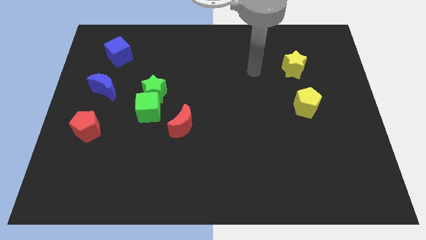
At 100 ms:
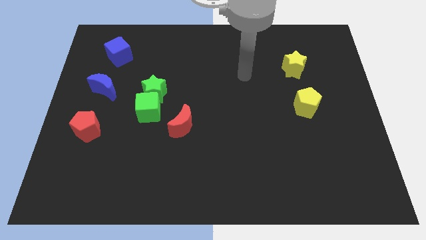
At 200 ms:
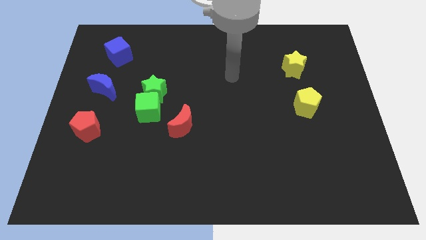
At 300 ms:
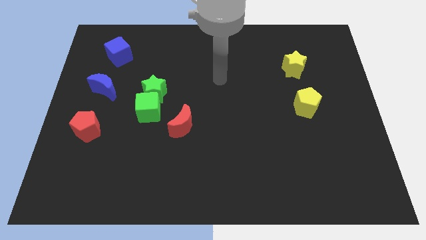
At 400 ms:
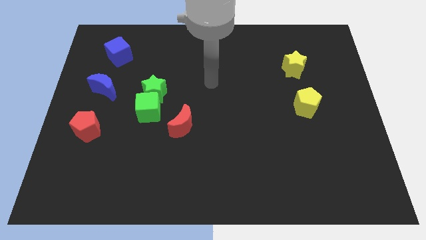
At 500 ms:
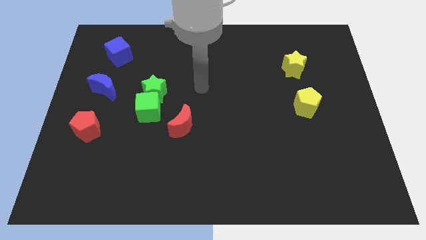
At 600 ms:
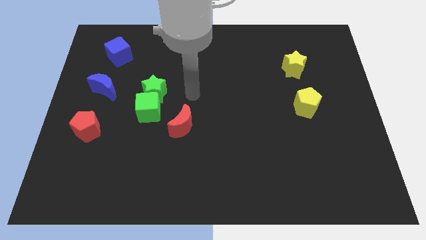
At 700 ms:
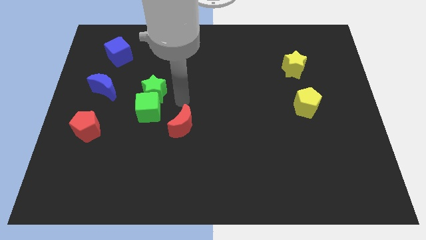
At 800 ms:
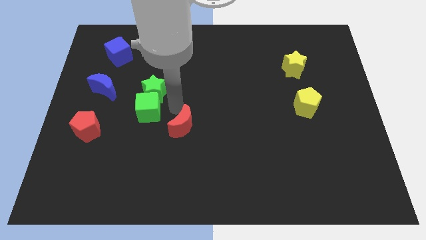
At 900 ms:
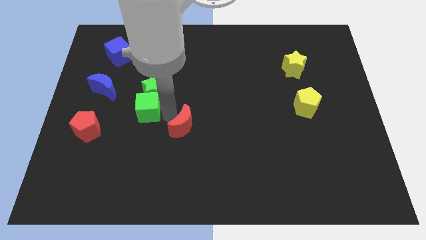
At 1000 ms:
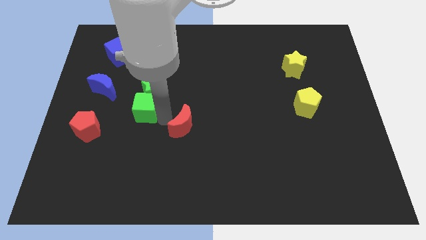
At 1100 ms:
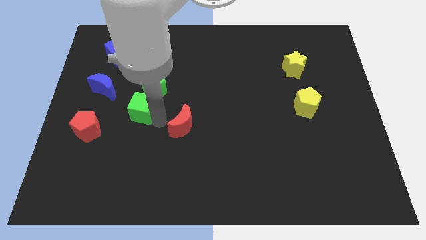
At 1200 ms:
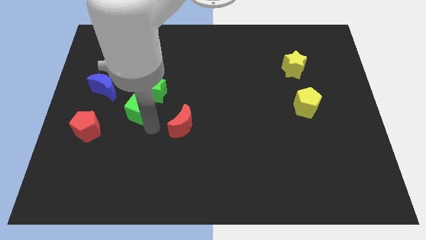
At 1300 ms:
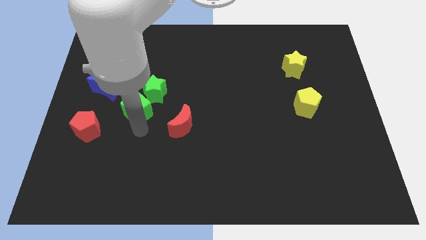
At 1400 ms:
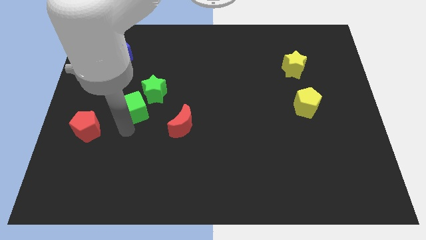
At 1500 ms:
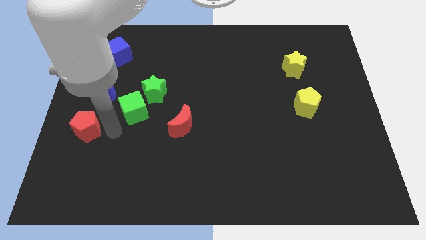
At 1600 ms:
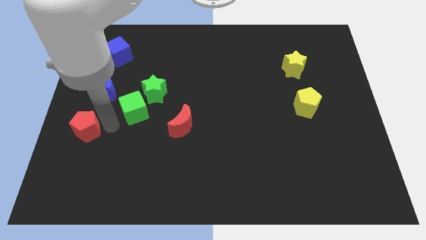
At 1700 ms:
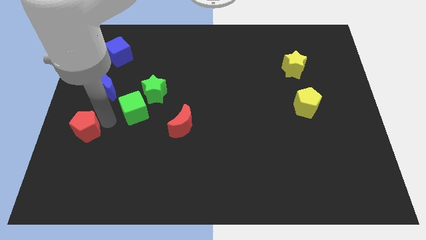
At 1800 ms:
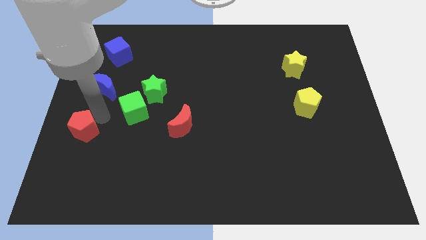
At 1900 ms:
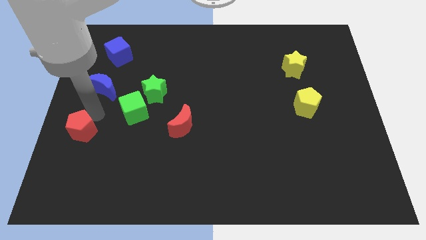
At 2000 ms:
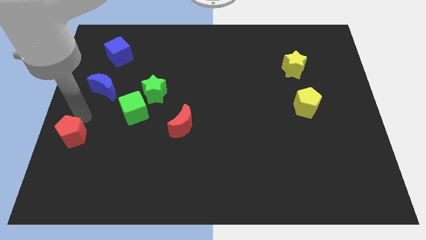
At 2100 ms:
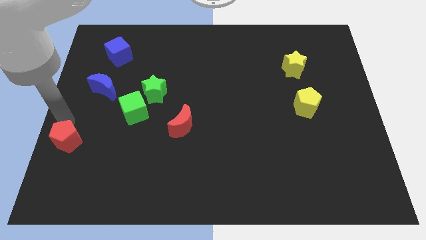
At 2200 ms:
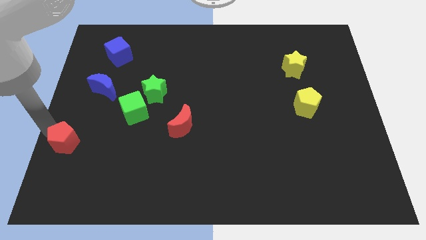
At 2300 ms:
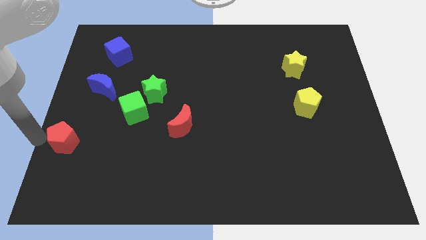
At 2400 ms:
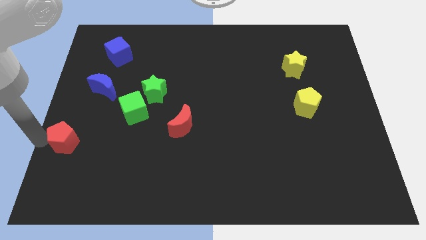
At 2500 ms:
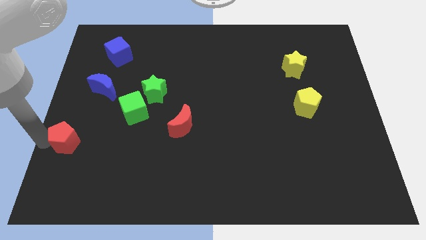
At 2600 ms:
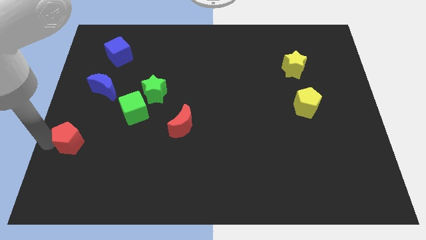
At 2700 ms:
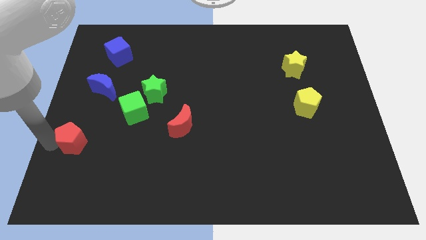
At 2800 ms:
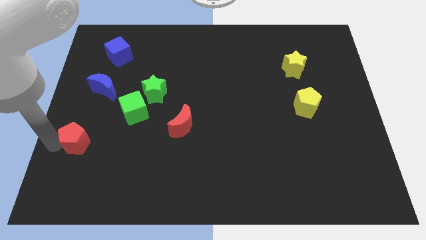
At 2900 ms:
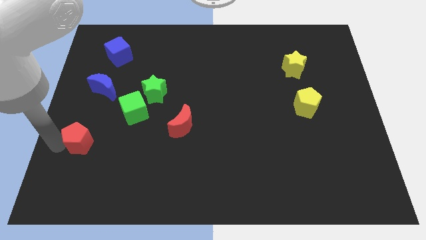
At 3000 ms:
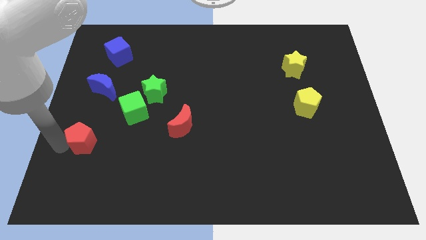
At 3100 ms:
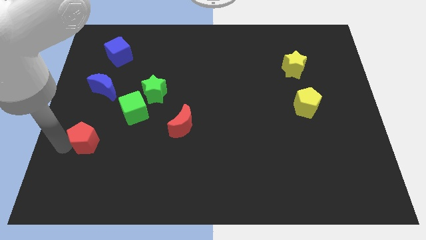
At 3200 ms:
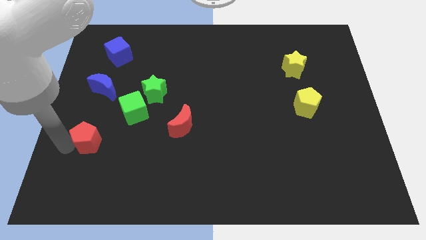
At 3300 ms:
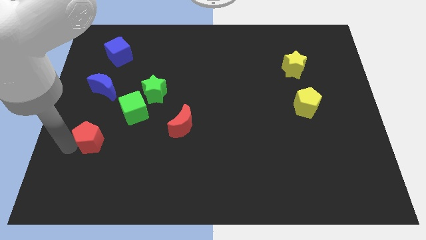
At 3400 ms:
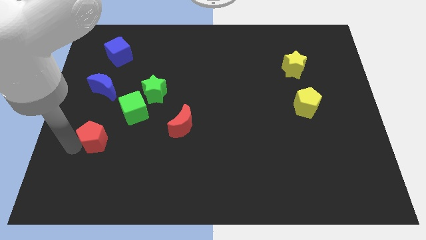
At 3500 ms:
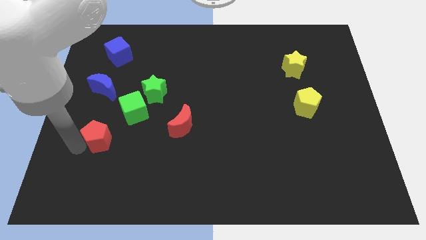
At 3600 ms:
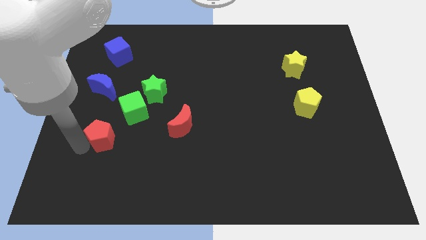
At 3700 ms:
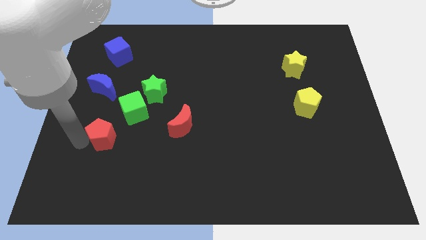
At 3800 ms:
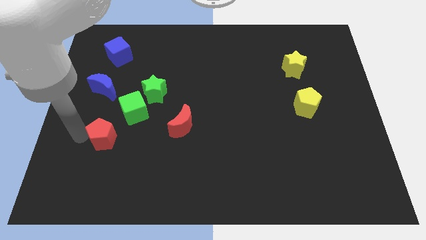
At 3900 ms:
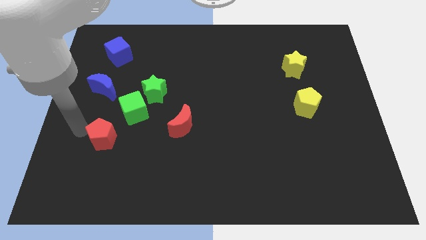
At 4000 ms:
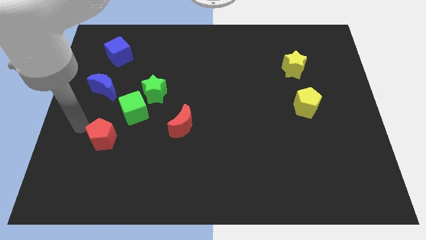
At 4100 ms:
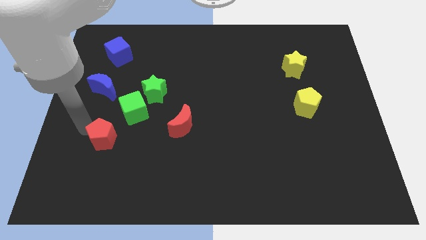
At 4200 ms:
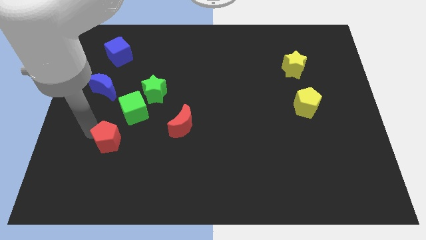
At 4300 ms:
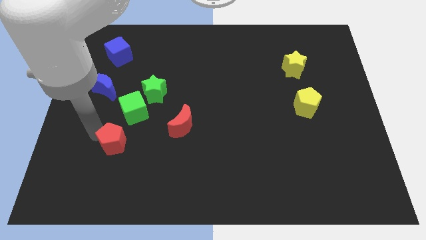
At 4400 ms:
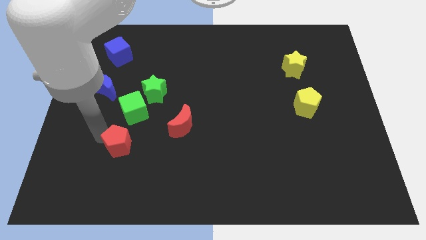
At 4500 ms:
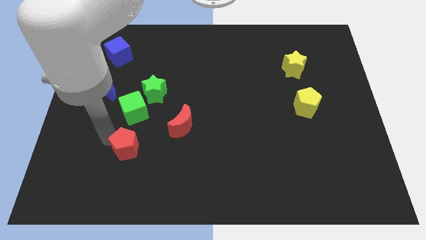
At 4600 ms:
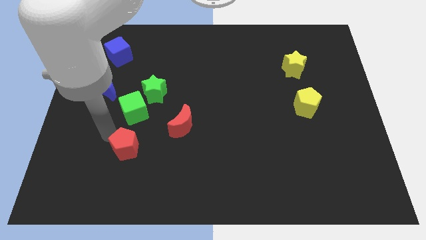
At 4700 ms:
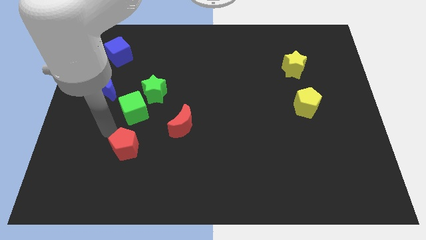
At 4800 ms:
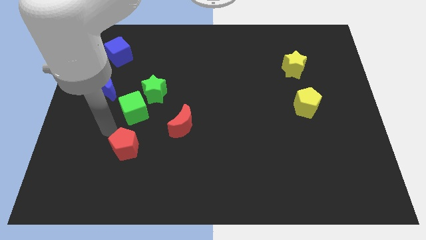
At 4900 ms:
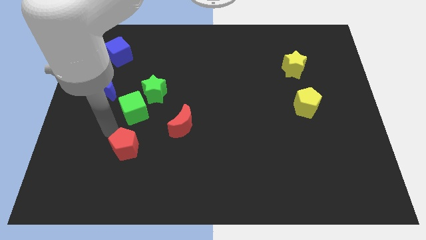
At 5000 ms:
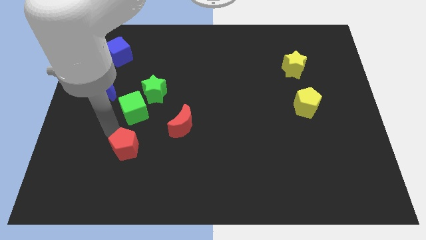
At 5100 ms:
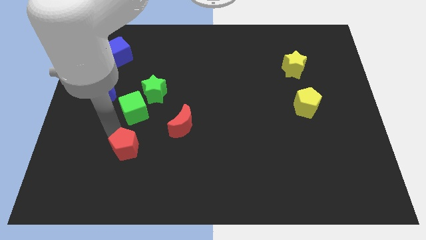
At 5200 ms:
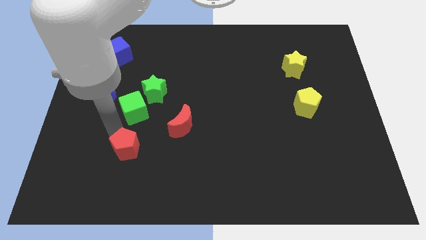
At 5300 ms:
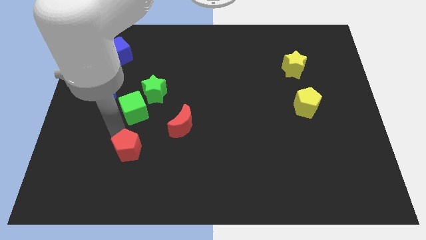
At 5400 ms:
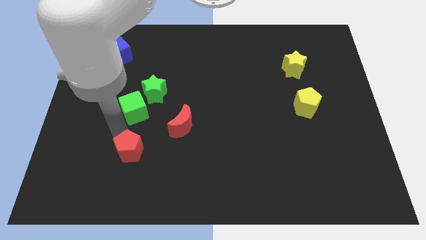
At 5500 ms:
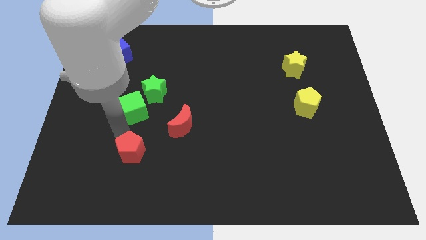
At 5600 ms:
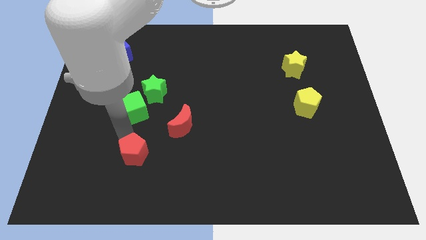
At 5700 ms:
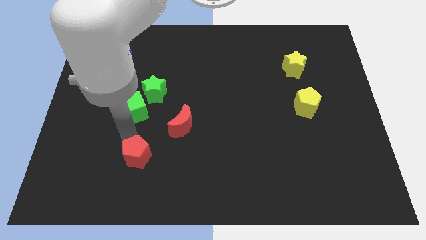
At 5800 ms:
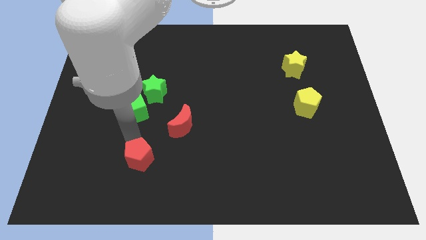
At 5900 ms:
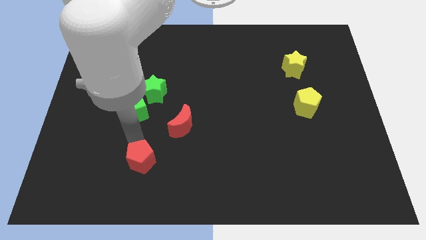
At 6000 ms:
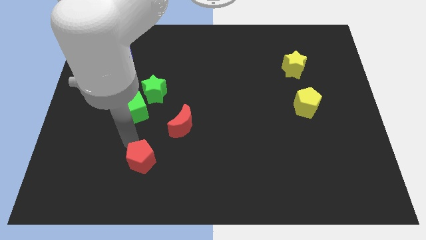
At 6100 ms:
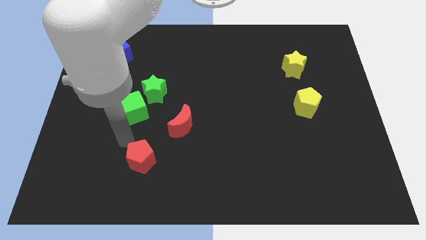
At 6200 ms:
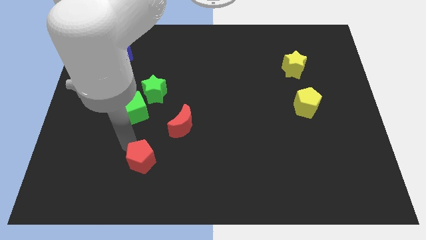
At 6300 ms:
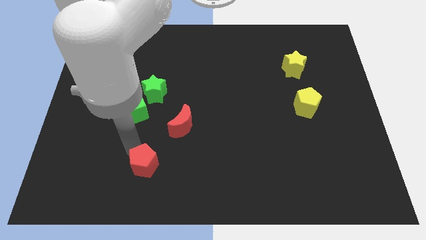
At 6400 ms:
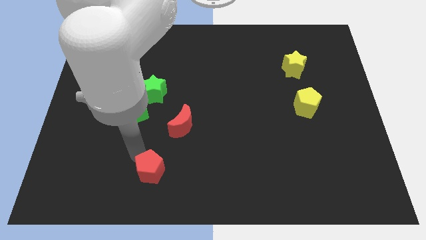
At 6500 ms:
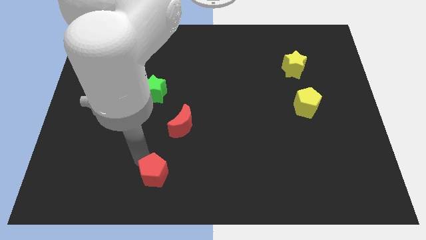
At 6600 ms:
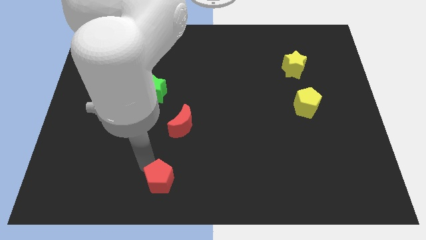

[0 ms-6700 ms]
put the red pentagon to the bottom

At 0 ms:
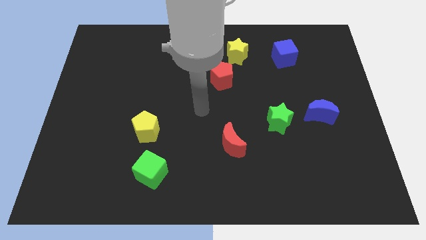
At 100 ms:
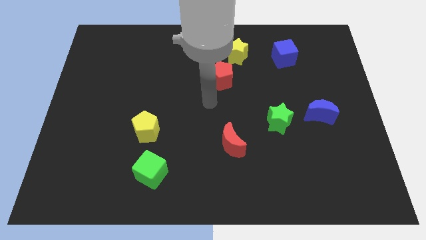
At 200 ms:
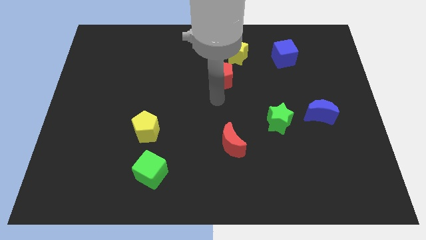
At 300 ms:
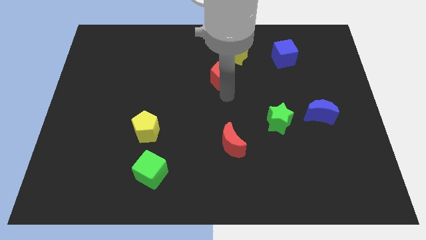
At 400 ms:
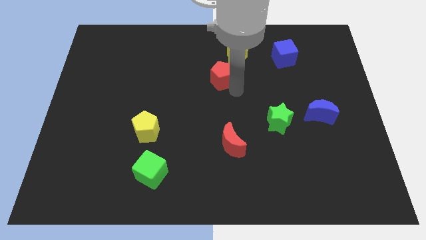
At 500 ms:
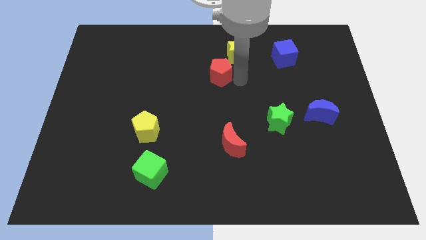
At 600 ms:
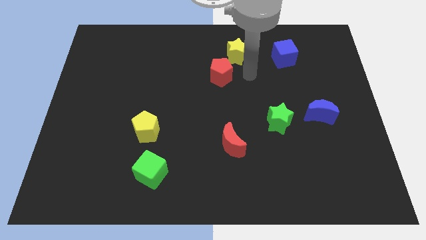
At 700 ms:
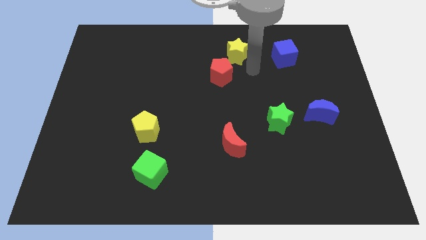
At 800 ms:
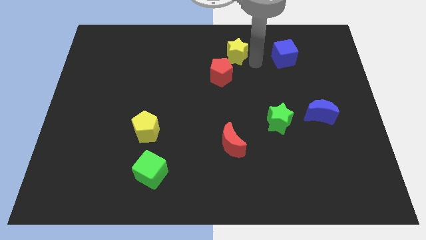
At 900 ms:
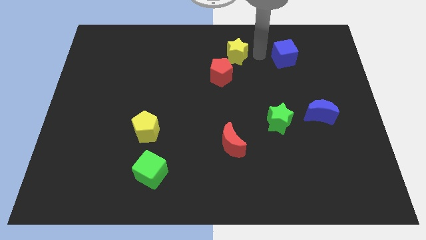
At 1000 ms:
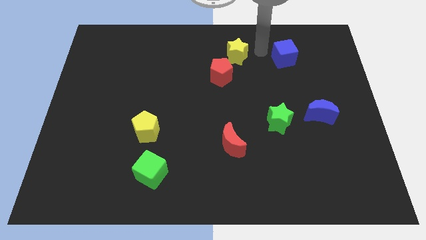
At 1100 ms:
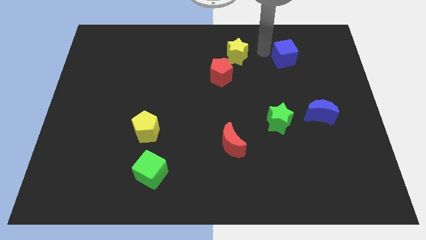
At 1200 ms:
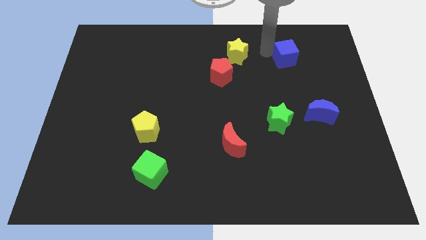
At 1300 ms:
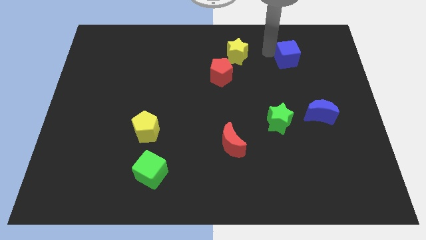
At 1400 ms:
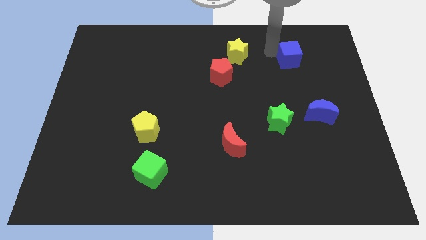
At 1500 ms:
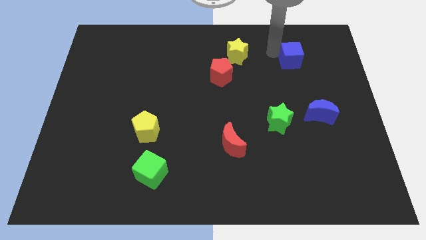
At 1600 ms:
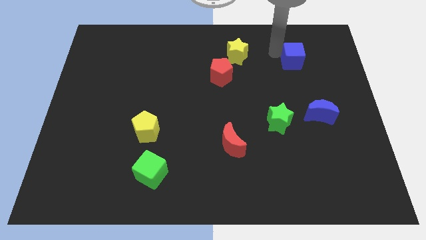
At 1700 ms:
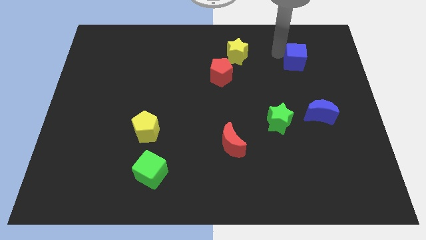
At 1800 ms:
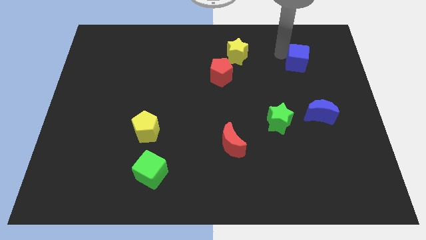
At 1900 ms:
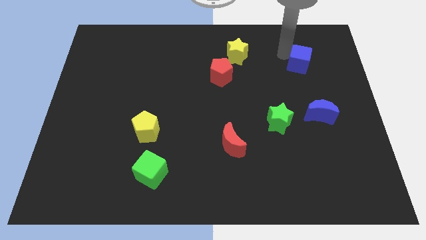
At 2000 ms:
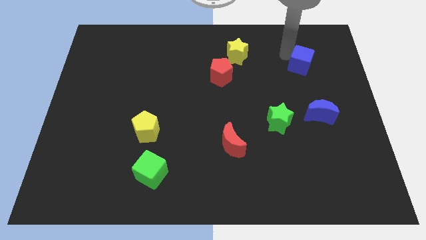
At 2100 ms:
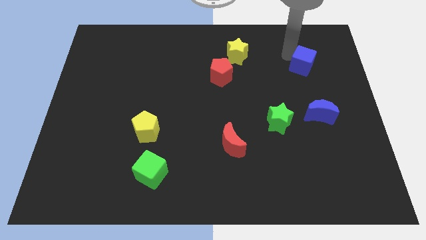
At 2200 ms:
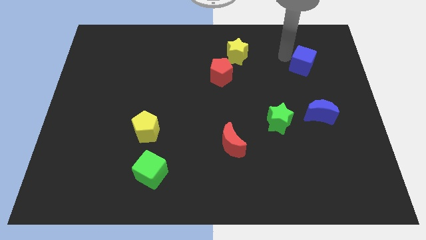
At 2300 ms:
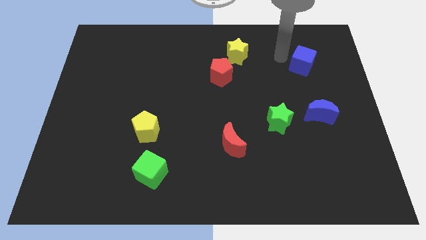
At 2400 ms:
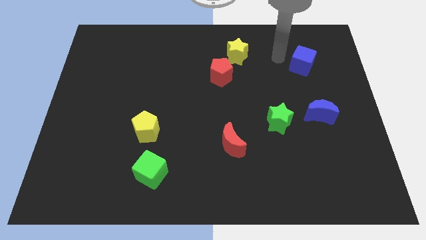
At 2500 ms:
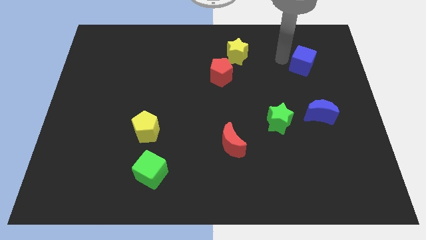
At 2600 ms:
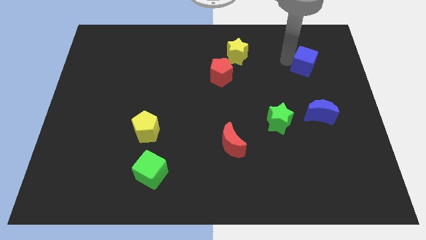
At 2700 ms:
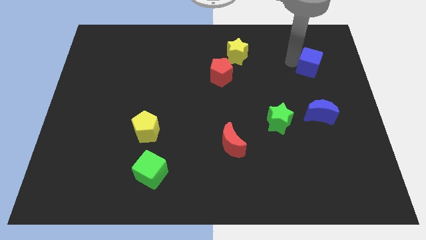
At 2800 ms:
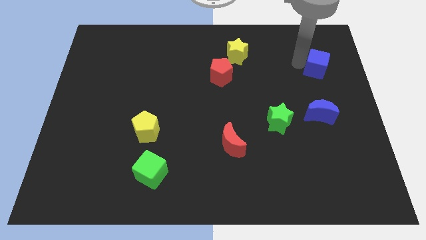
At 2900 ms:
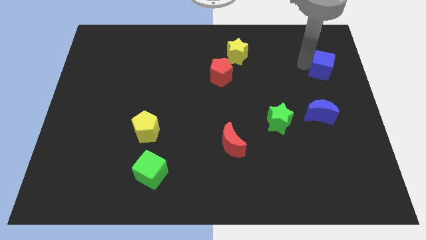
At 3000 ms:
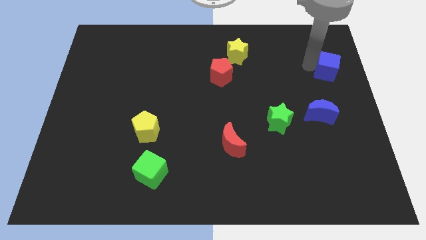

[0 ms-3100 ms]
put the blue cube to the right side of the board
